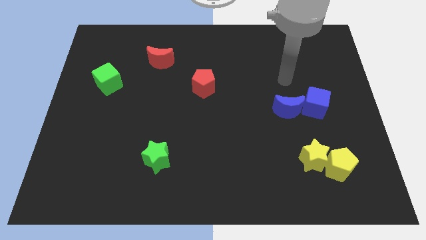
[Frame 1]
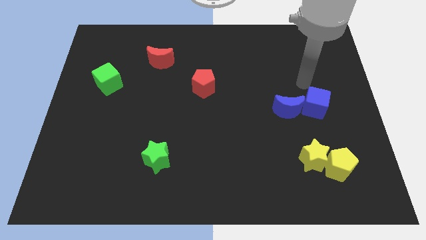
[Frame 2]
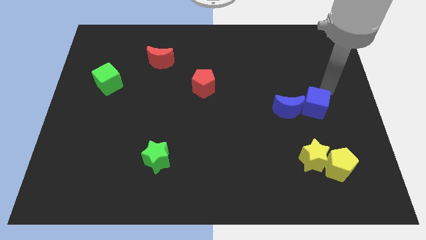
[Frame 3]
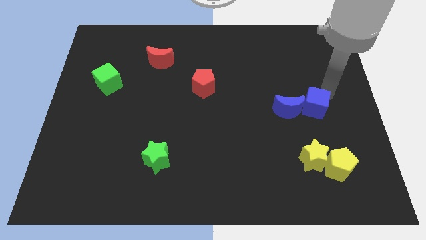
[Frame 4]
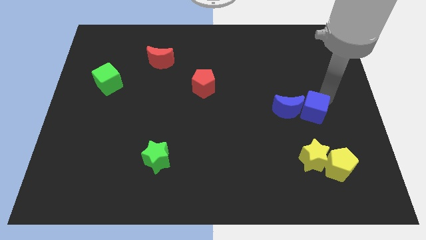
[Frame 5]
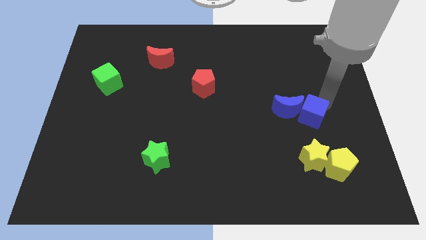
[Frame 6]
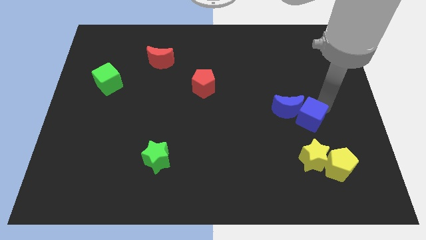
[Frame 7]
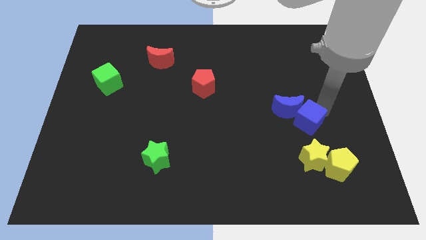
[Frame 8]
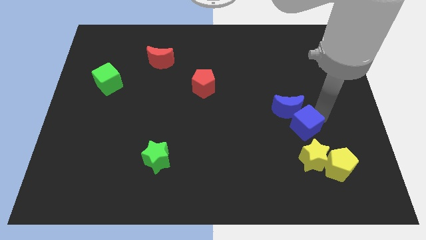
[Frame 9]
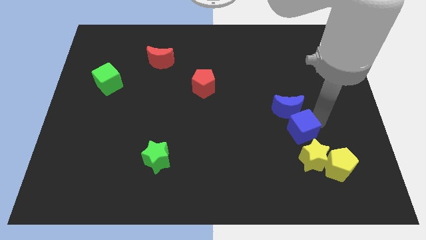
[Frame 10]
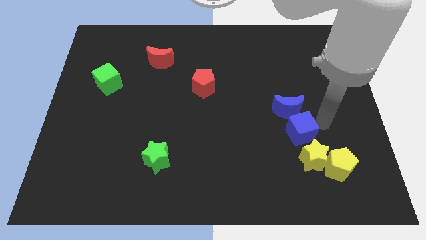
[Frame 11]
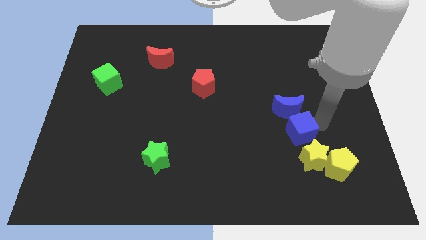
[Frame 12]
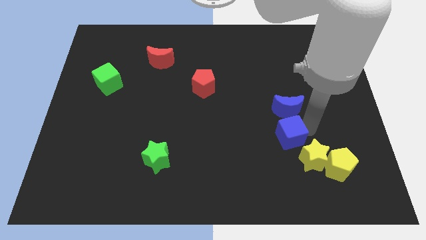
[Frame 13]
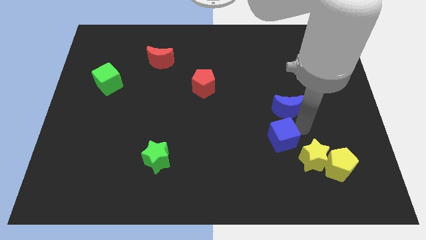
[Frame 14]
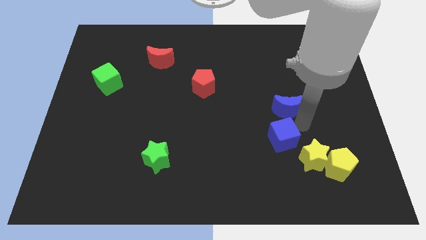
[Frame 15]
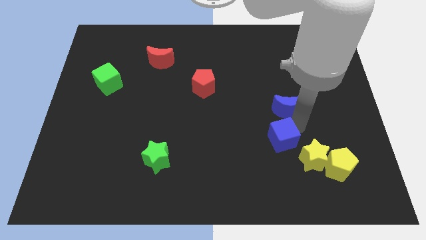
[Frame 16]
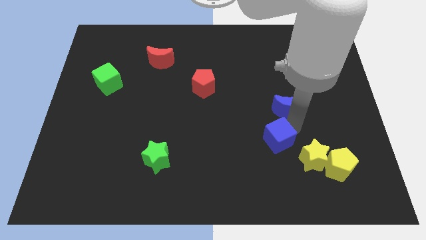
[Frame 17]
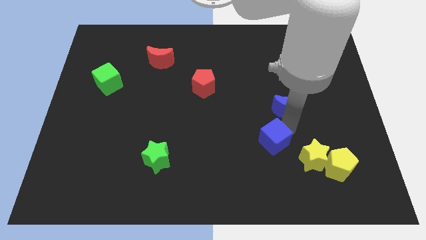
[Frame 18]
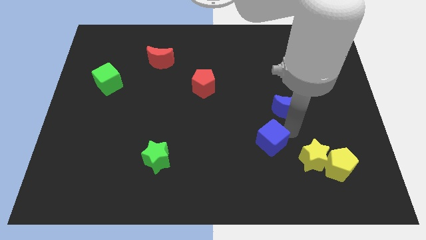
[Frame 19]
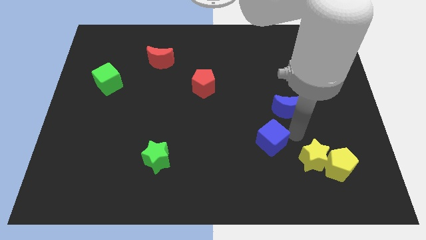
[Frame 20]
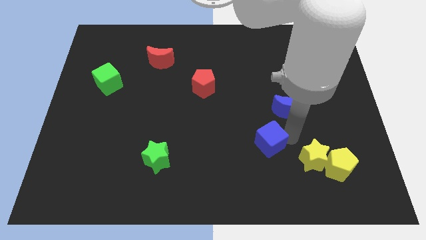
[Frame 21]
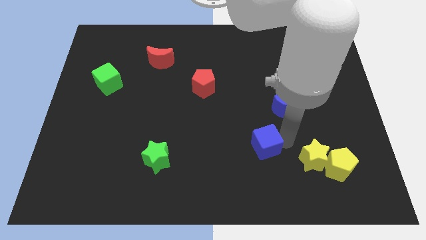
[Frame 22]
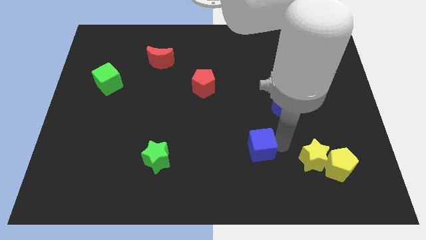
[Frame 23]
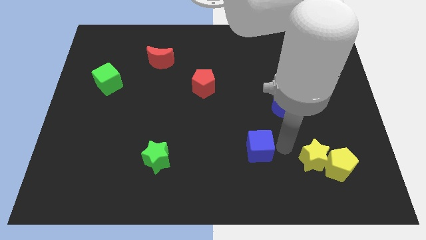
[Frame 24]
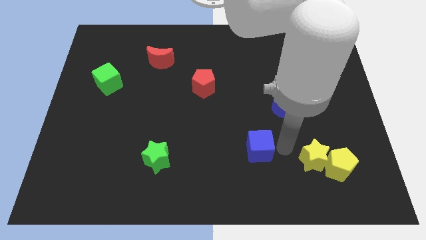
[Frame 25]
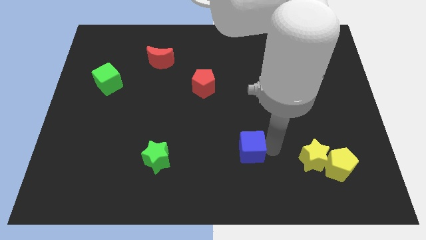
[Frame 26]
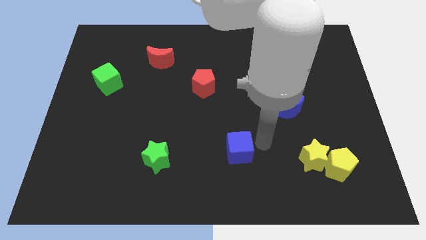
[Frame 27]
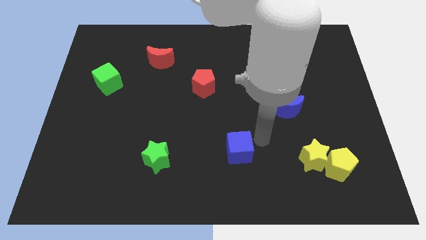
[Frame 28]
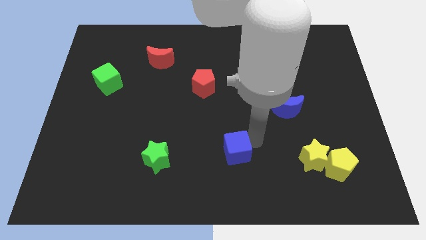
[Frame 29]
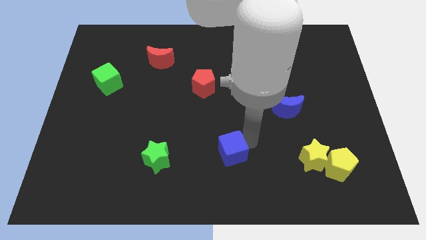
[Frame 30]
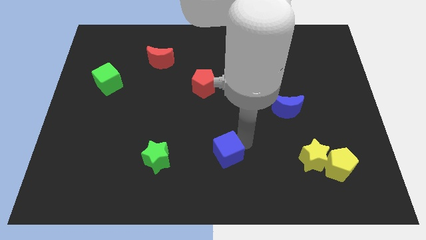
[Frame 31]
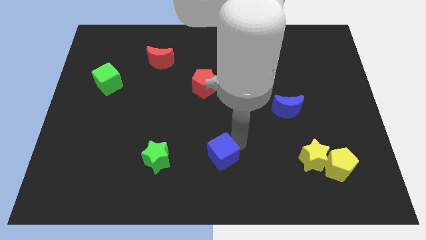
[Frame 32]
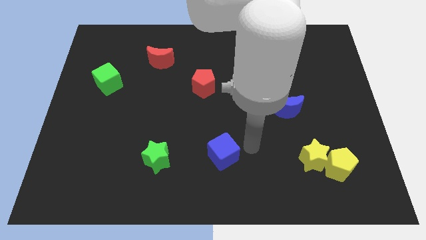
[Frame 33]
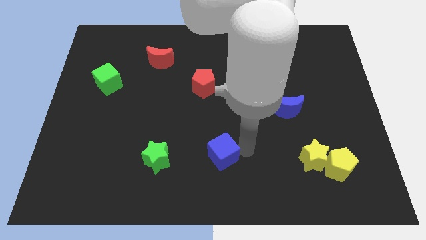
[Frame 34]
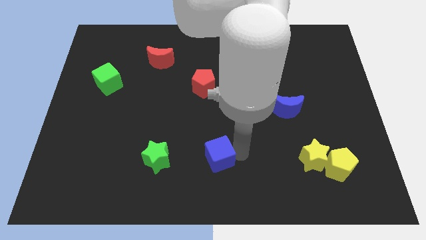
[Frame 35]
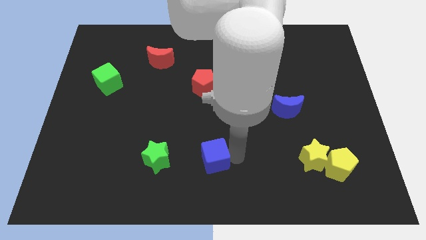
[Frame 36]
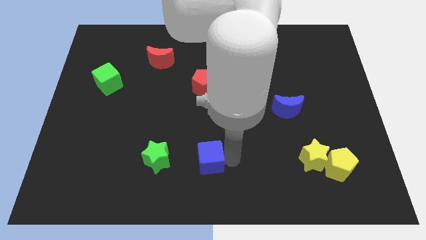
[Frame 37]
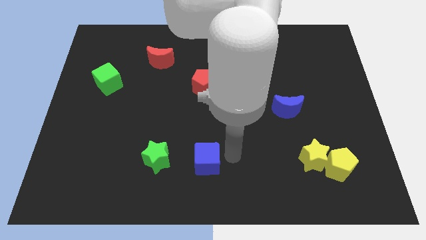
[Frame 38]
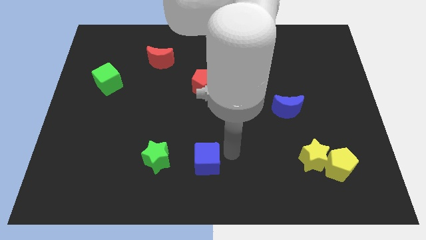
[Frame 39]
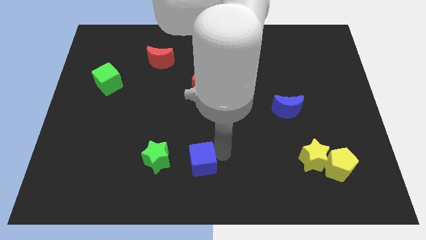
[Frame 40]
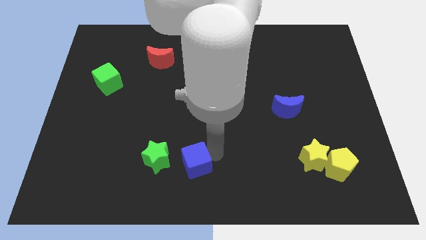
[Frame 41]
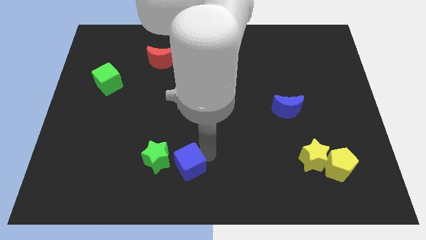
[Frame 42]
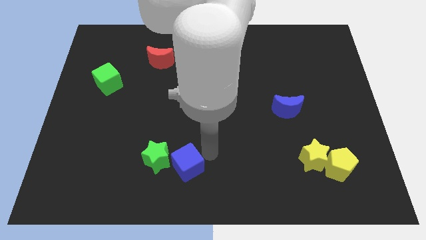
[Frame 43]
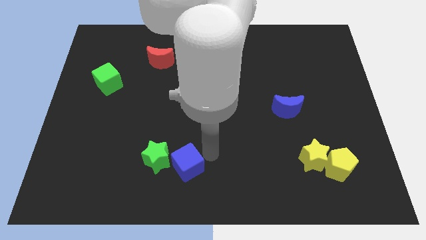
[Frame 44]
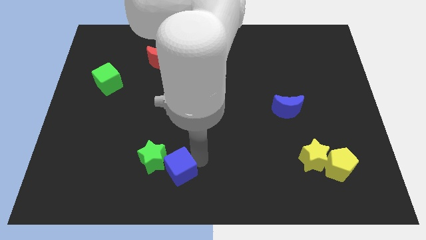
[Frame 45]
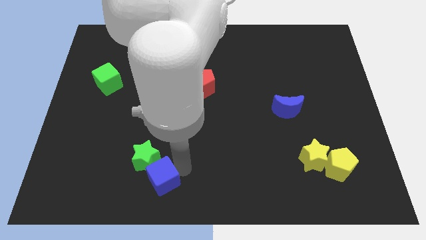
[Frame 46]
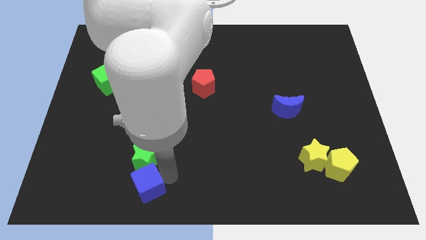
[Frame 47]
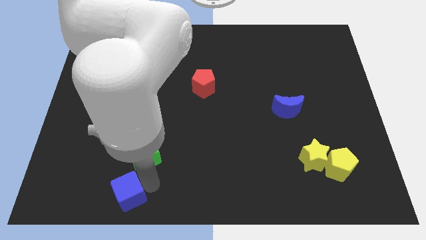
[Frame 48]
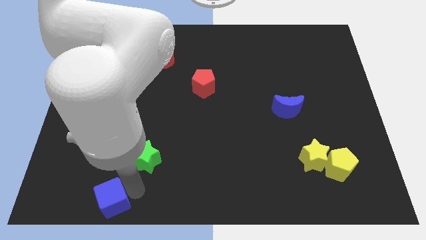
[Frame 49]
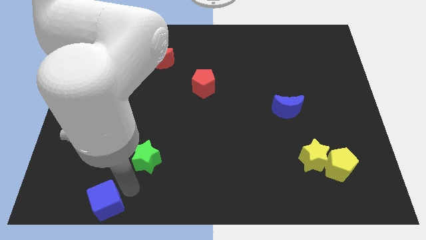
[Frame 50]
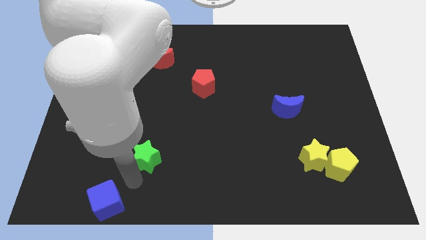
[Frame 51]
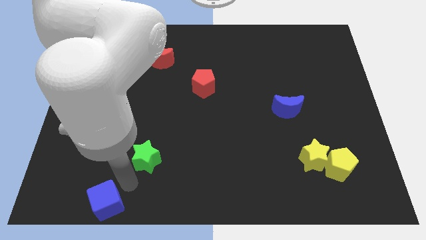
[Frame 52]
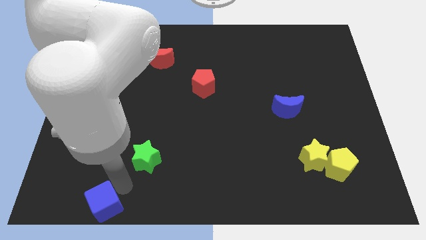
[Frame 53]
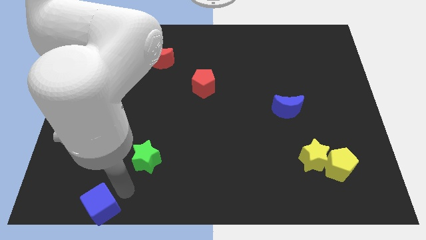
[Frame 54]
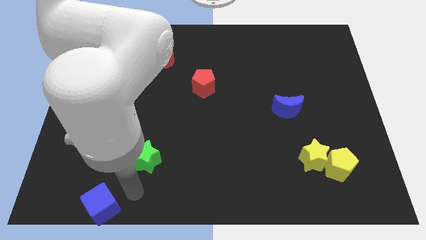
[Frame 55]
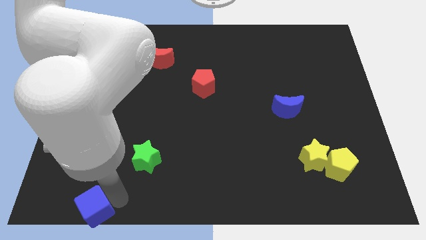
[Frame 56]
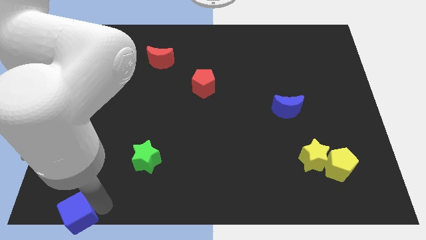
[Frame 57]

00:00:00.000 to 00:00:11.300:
push the blue cube to the bottom left corner

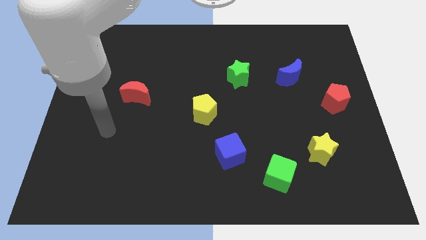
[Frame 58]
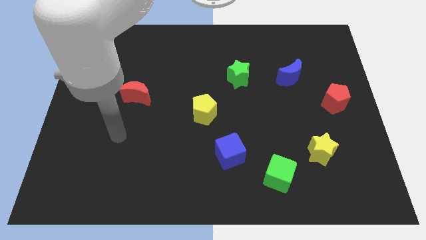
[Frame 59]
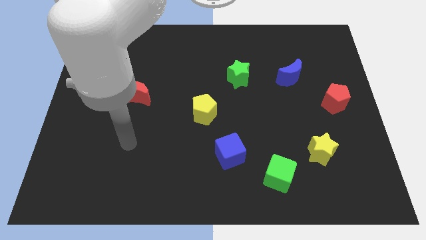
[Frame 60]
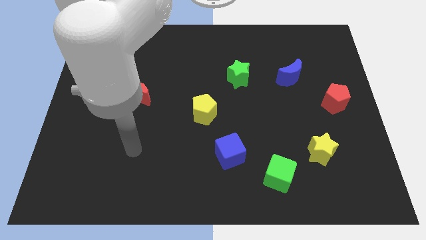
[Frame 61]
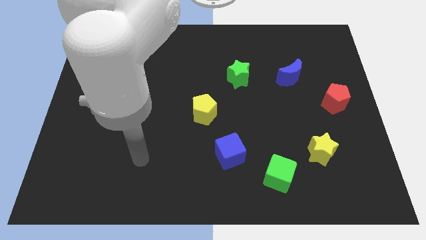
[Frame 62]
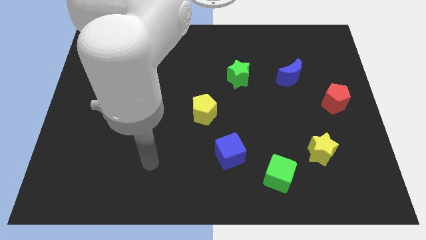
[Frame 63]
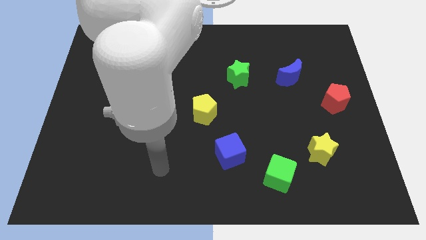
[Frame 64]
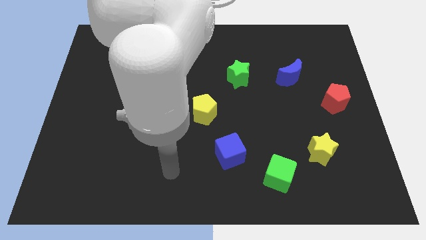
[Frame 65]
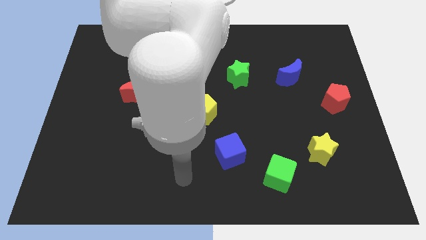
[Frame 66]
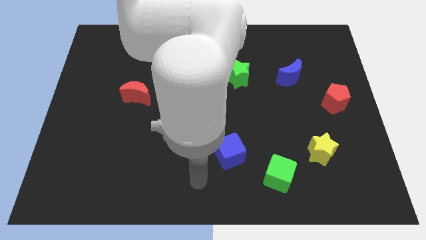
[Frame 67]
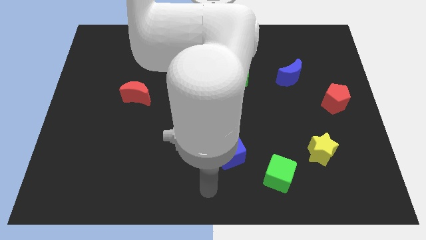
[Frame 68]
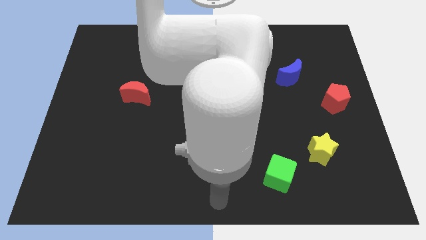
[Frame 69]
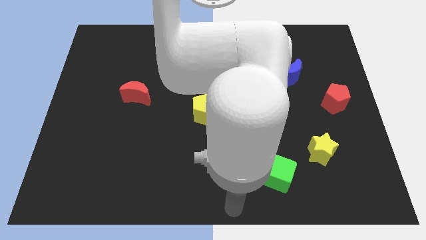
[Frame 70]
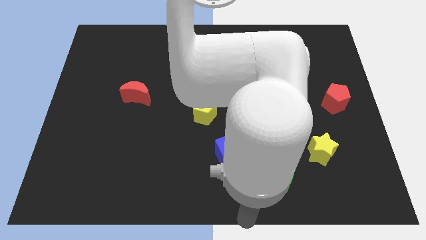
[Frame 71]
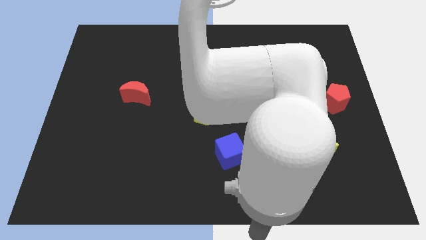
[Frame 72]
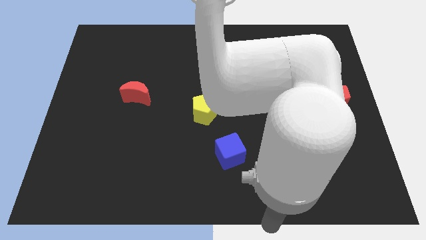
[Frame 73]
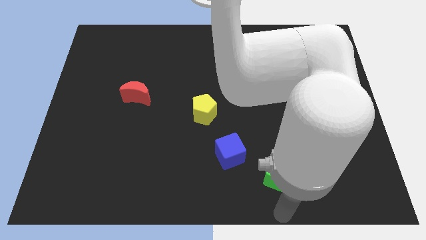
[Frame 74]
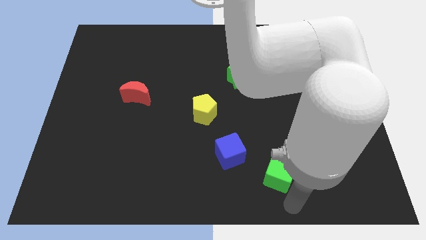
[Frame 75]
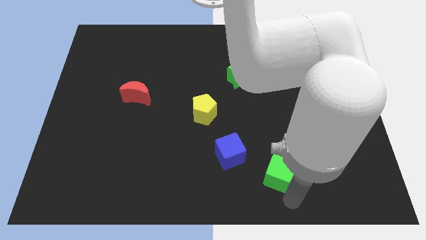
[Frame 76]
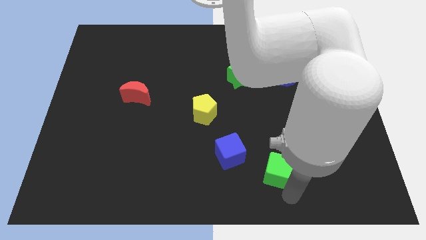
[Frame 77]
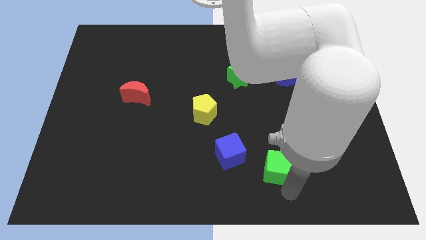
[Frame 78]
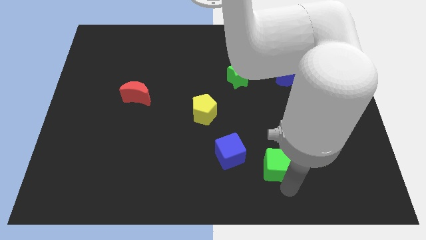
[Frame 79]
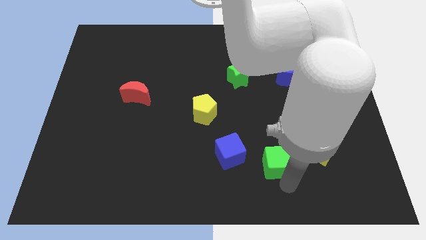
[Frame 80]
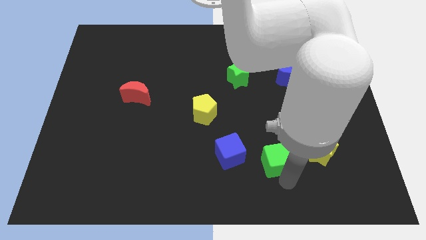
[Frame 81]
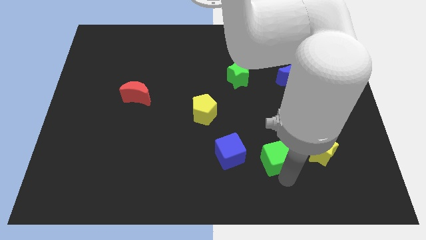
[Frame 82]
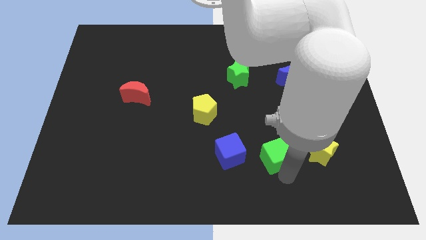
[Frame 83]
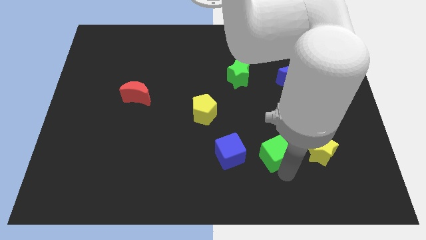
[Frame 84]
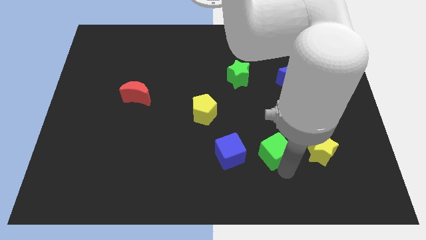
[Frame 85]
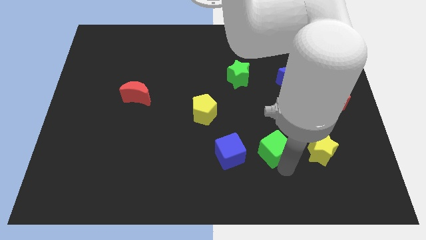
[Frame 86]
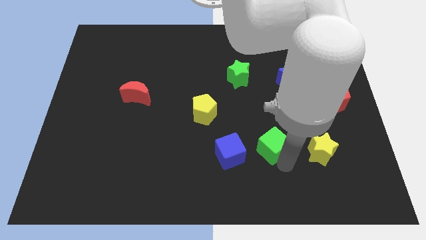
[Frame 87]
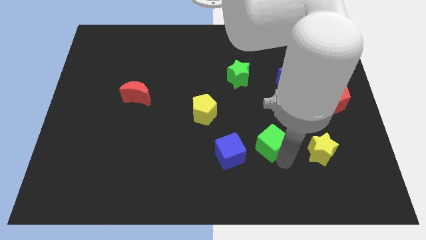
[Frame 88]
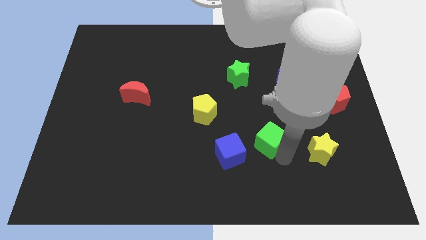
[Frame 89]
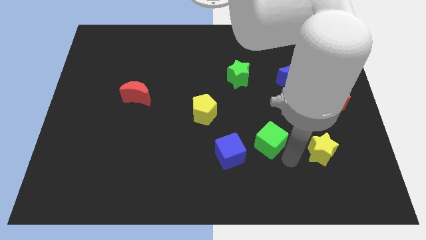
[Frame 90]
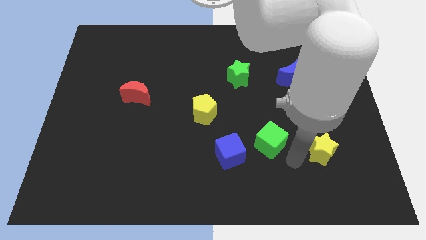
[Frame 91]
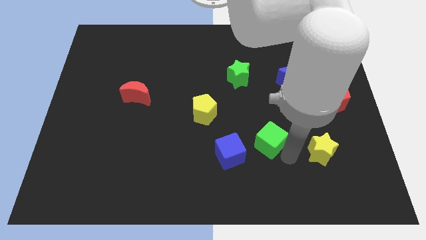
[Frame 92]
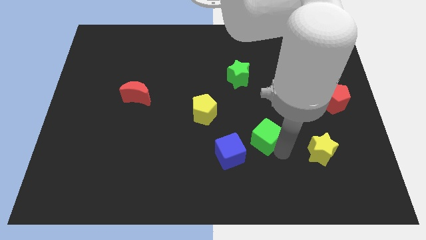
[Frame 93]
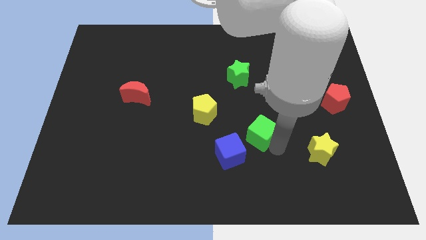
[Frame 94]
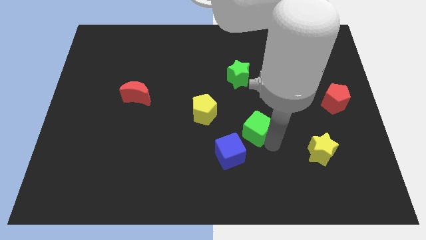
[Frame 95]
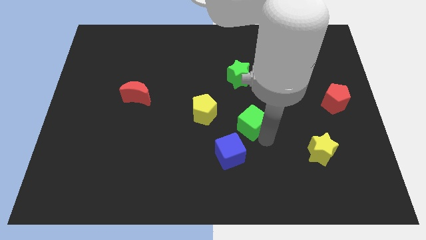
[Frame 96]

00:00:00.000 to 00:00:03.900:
slide the green cube to the middle of the board
